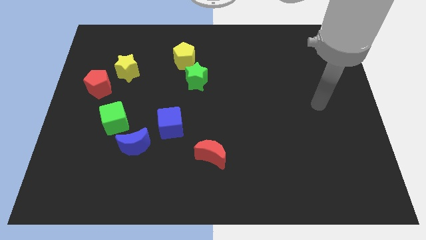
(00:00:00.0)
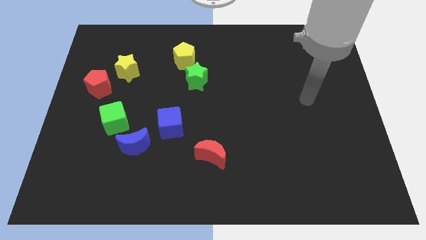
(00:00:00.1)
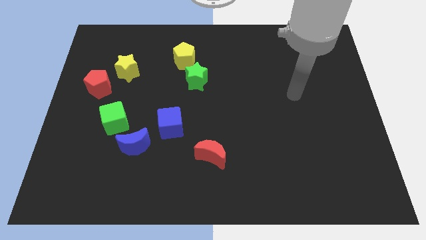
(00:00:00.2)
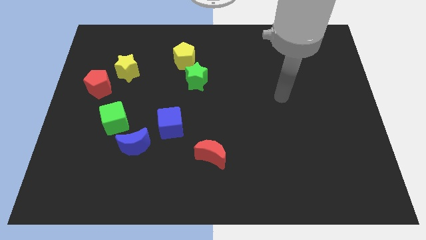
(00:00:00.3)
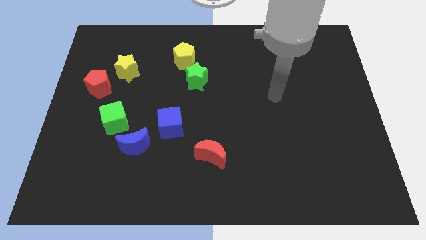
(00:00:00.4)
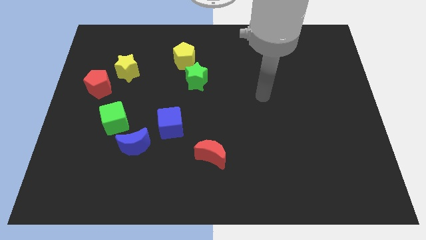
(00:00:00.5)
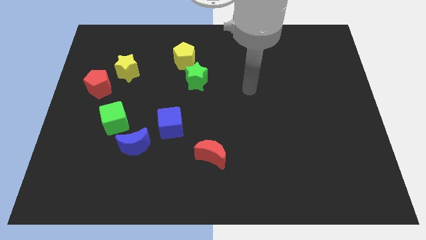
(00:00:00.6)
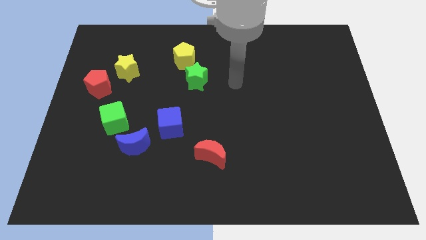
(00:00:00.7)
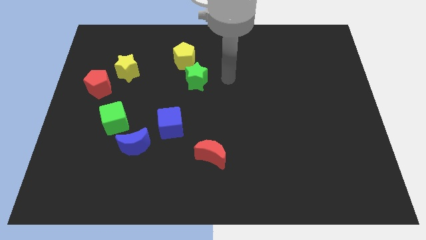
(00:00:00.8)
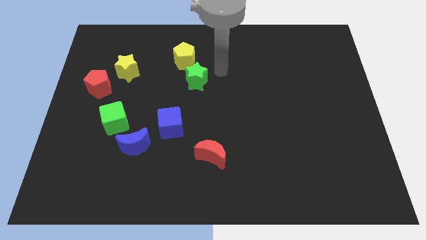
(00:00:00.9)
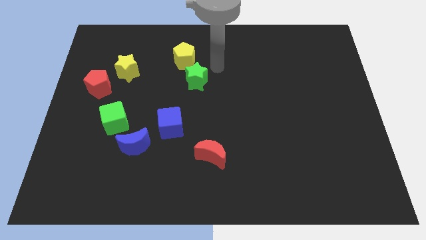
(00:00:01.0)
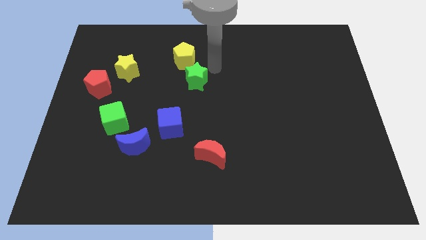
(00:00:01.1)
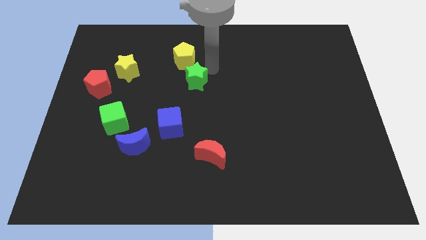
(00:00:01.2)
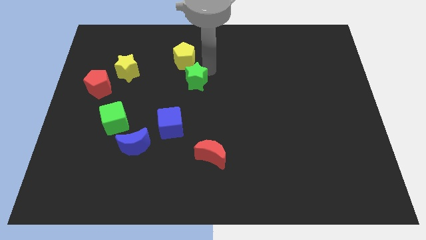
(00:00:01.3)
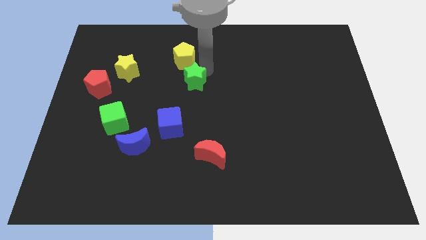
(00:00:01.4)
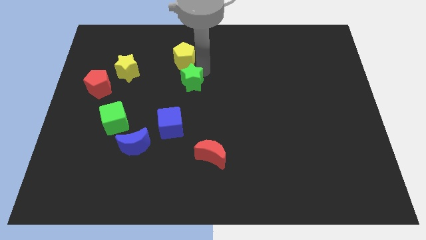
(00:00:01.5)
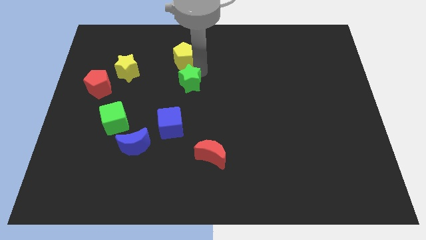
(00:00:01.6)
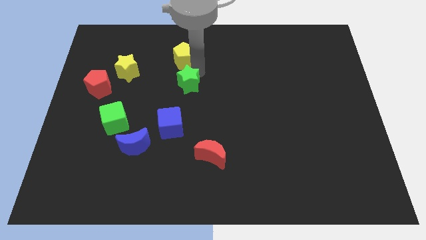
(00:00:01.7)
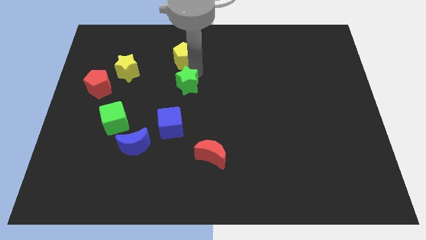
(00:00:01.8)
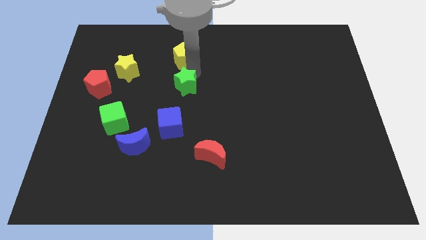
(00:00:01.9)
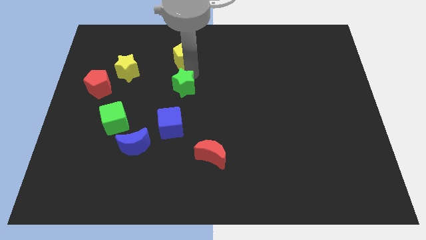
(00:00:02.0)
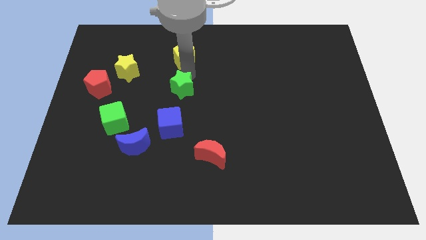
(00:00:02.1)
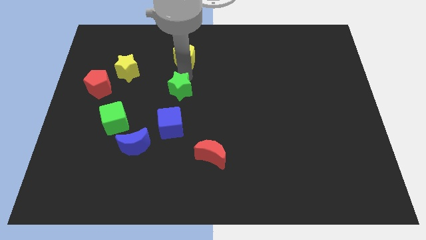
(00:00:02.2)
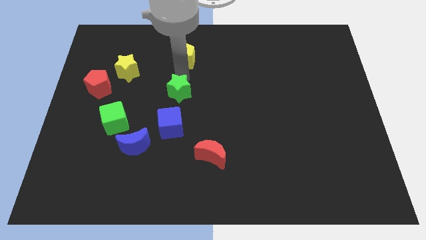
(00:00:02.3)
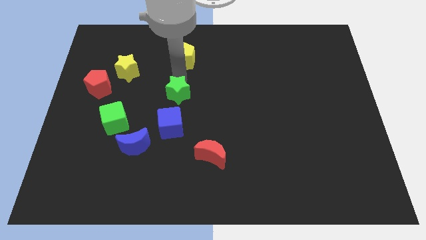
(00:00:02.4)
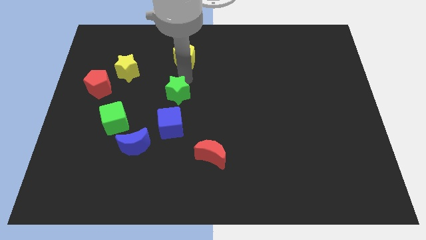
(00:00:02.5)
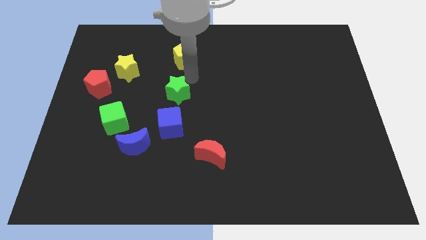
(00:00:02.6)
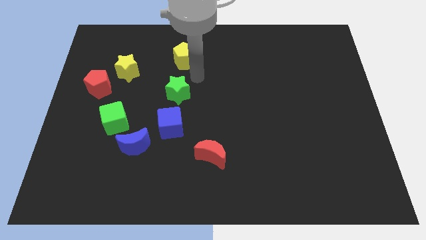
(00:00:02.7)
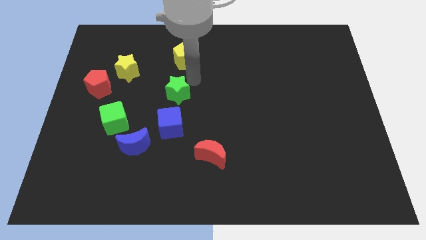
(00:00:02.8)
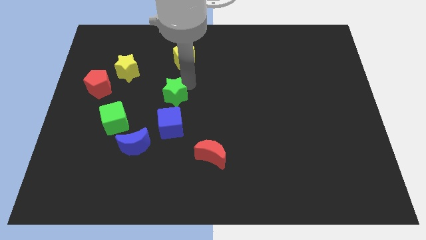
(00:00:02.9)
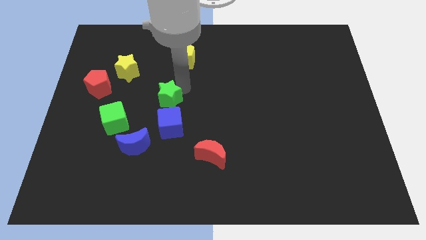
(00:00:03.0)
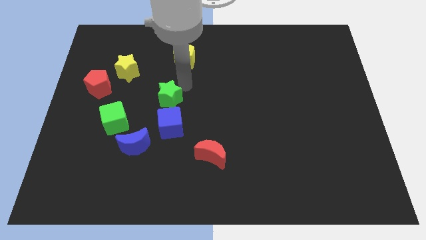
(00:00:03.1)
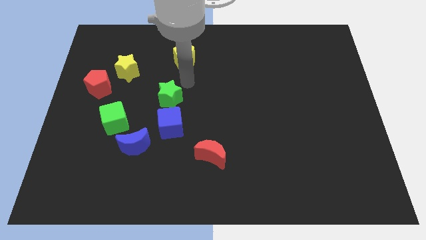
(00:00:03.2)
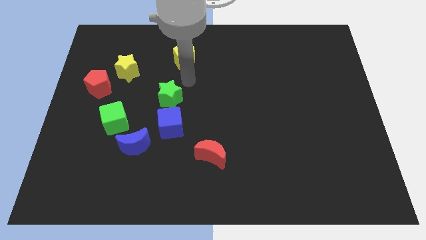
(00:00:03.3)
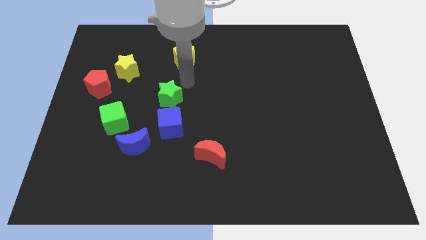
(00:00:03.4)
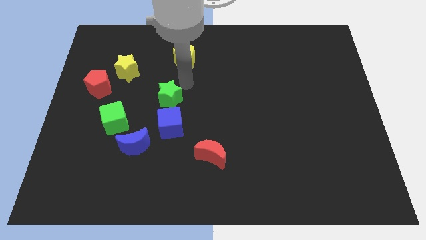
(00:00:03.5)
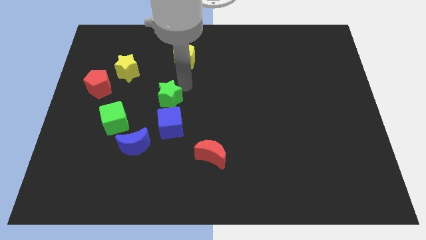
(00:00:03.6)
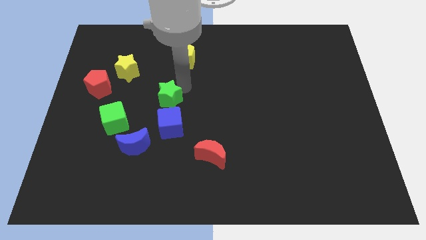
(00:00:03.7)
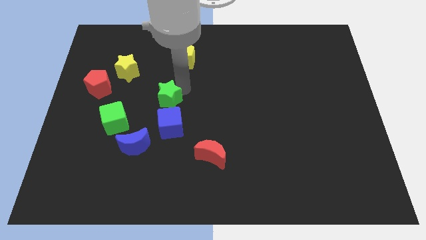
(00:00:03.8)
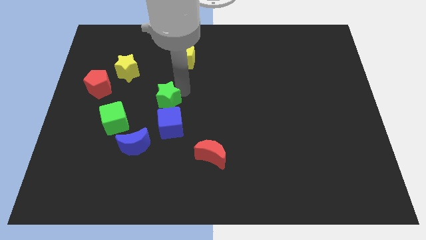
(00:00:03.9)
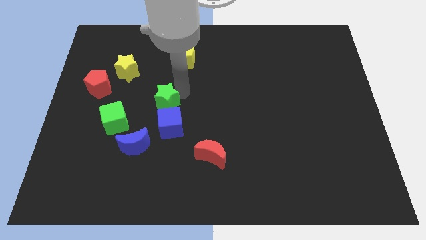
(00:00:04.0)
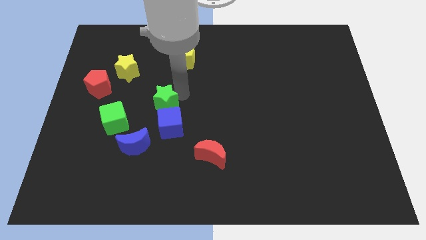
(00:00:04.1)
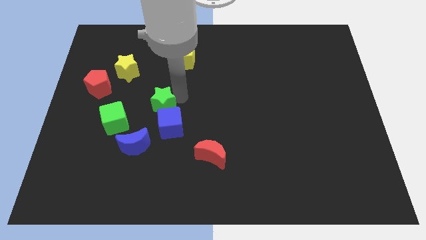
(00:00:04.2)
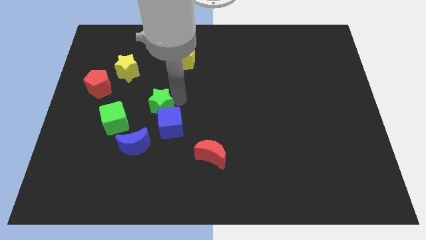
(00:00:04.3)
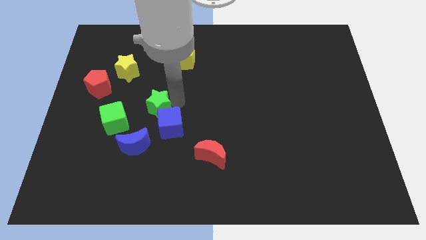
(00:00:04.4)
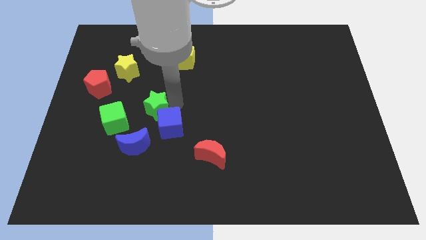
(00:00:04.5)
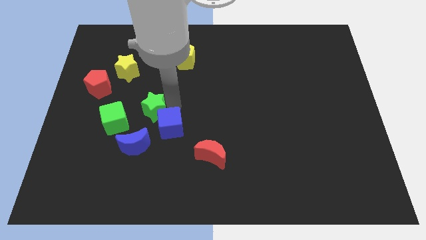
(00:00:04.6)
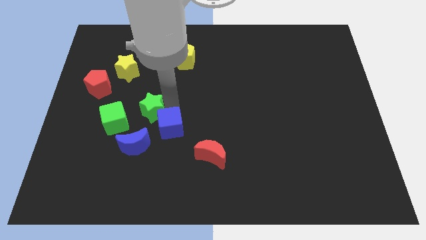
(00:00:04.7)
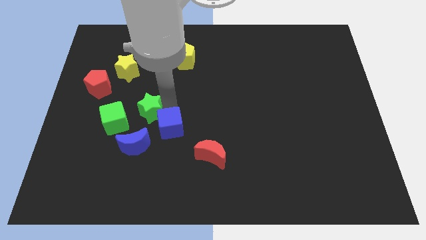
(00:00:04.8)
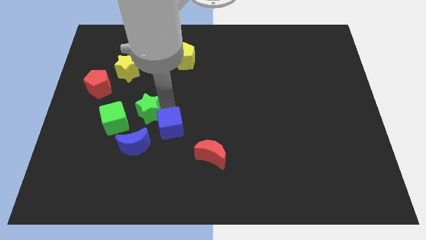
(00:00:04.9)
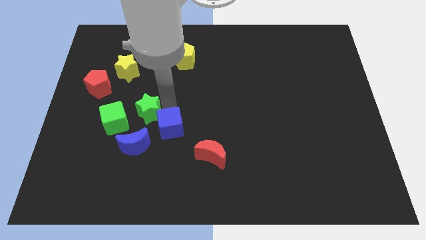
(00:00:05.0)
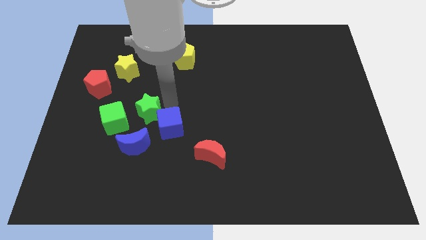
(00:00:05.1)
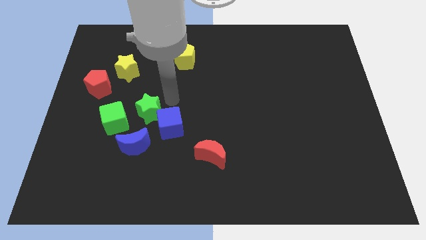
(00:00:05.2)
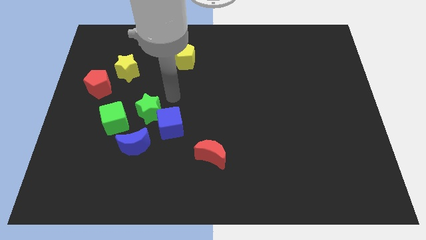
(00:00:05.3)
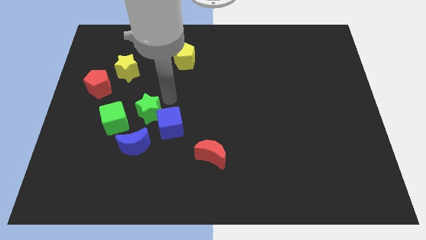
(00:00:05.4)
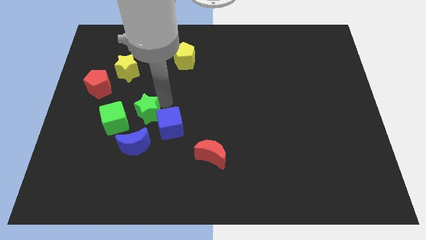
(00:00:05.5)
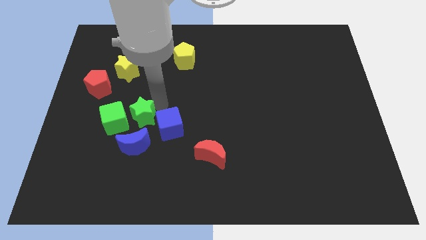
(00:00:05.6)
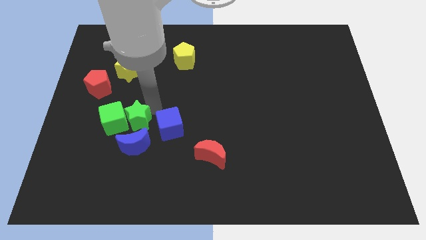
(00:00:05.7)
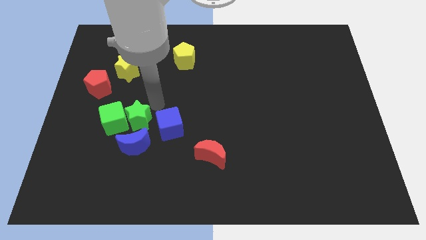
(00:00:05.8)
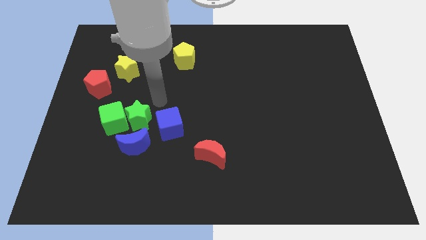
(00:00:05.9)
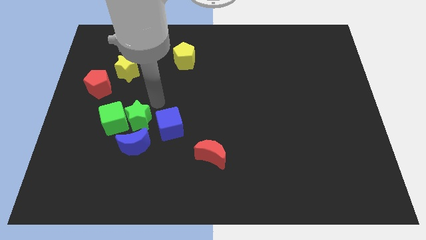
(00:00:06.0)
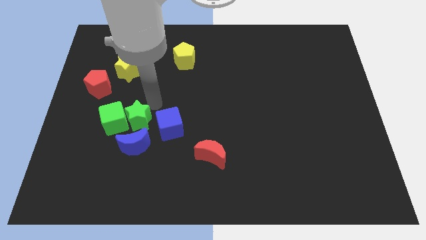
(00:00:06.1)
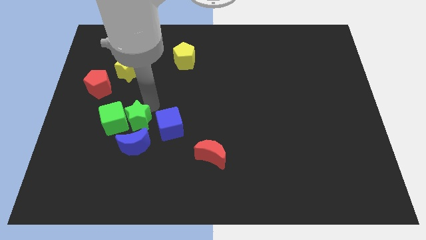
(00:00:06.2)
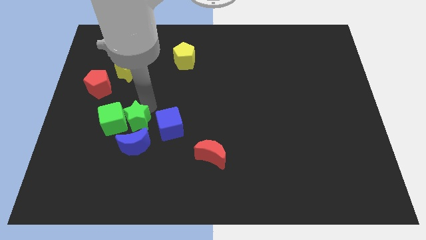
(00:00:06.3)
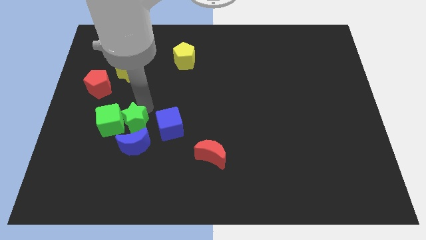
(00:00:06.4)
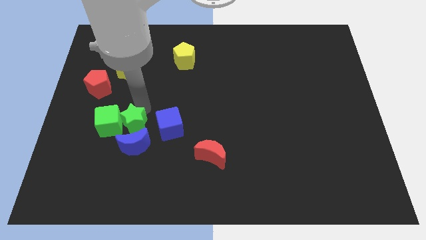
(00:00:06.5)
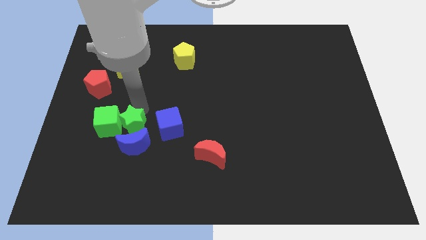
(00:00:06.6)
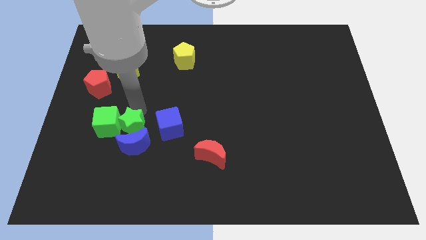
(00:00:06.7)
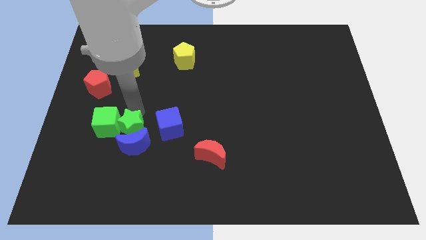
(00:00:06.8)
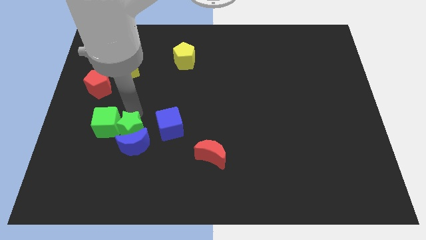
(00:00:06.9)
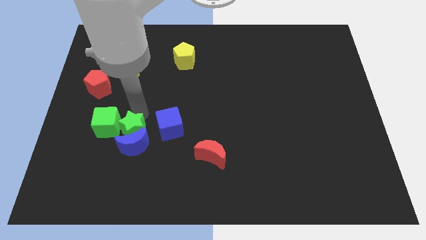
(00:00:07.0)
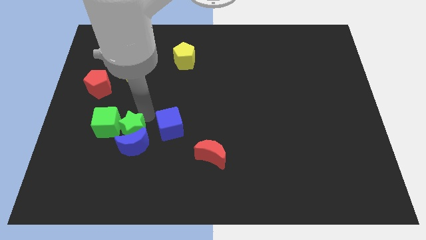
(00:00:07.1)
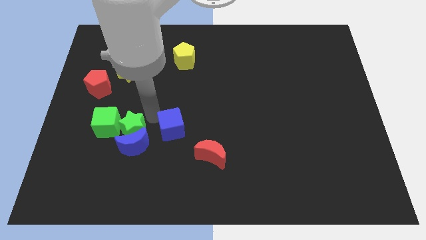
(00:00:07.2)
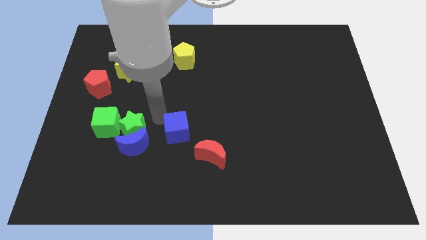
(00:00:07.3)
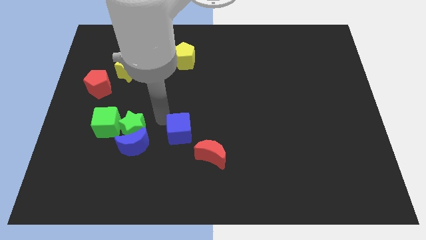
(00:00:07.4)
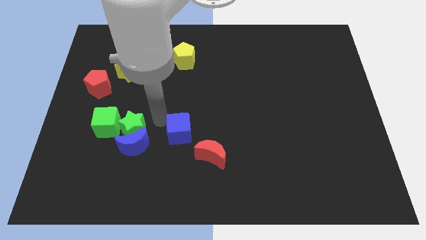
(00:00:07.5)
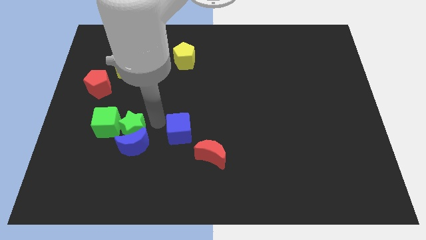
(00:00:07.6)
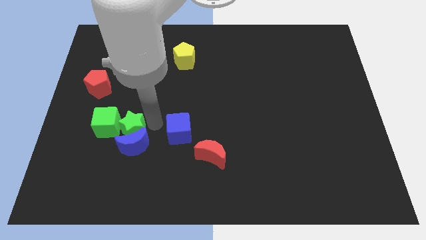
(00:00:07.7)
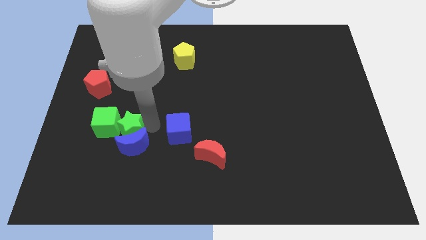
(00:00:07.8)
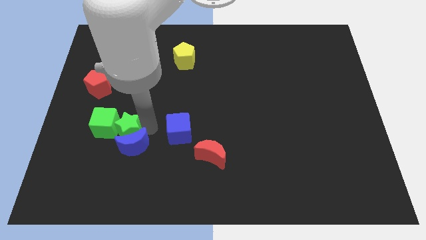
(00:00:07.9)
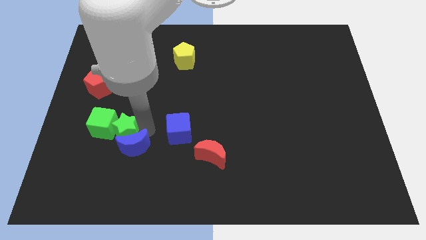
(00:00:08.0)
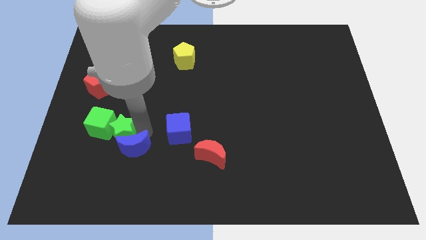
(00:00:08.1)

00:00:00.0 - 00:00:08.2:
put the green star just left of the blue moon
